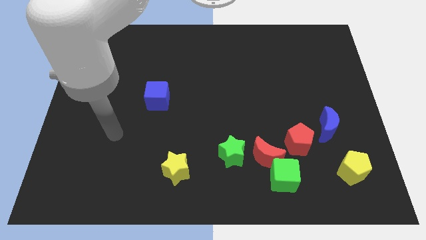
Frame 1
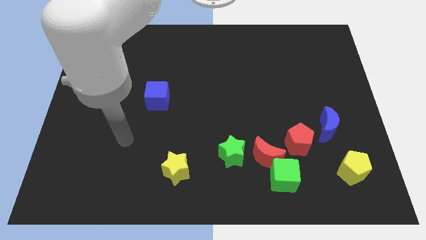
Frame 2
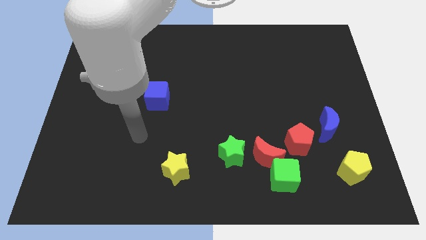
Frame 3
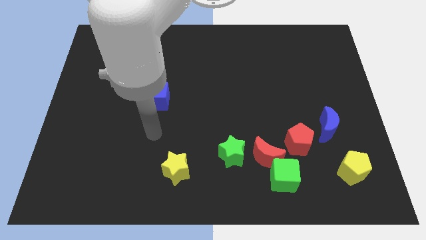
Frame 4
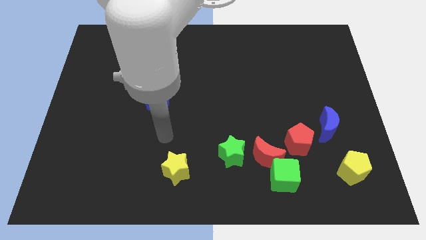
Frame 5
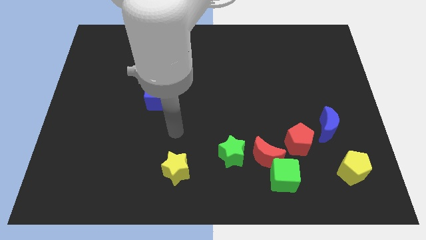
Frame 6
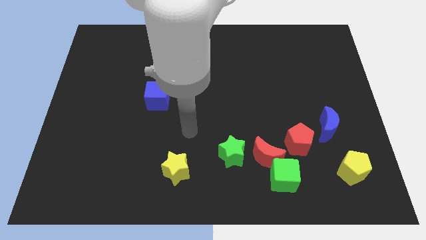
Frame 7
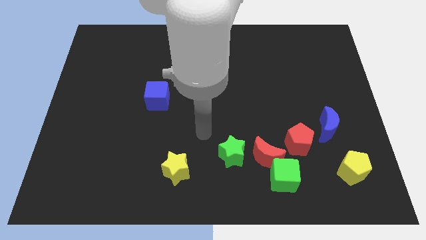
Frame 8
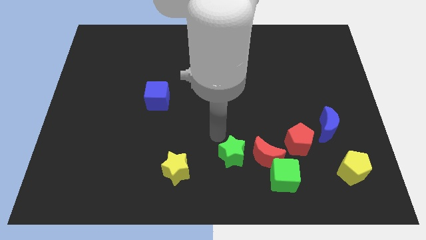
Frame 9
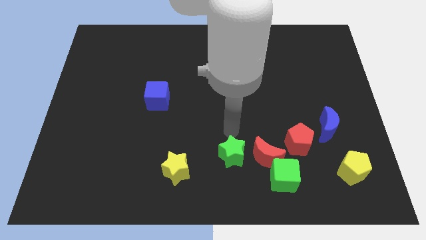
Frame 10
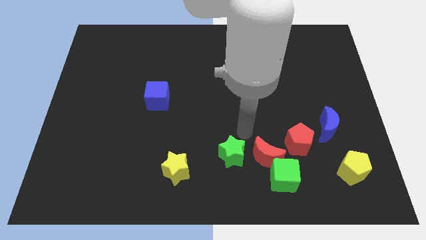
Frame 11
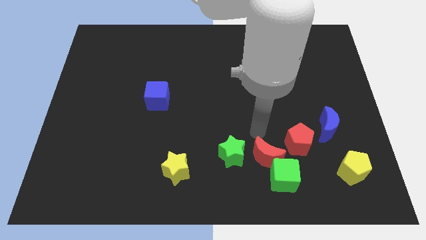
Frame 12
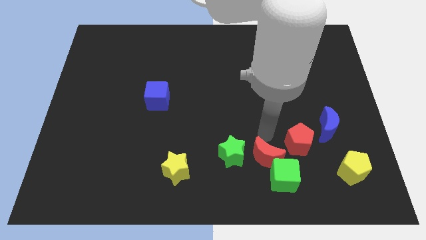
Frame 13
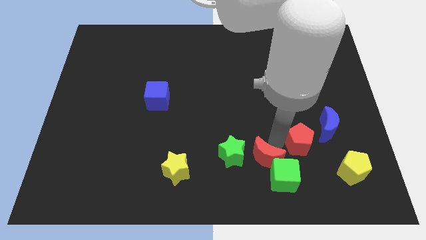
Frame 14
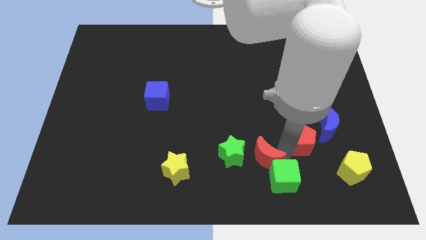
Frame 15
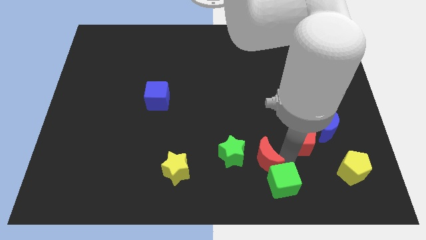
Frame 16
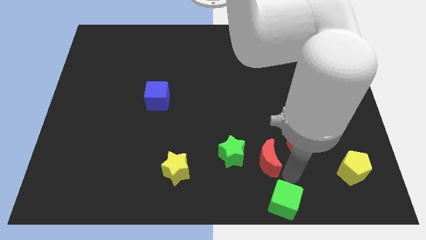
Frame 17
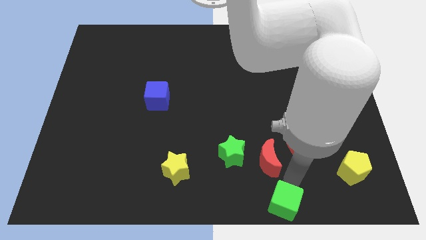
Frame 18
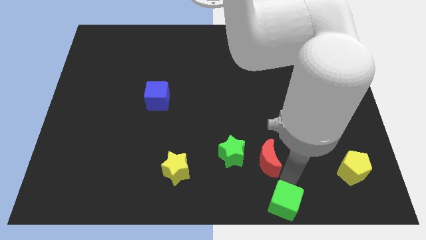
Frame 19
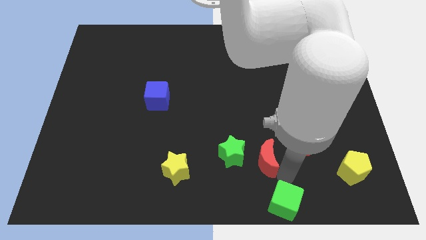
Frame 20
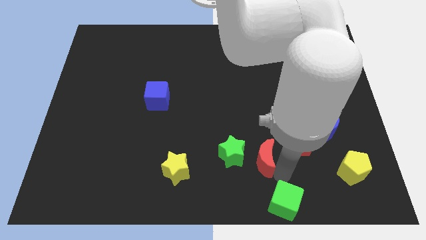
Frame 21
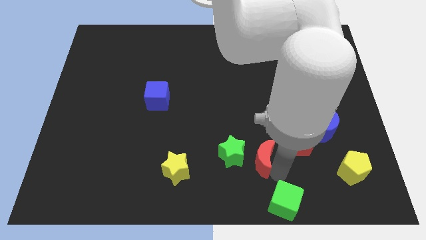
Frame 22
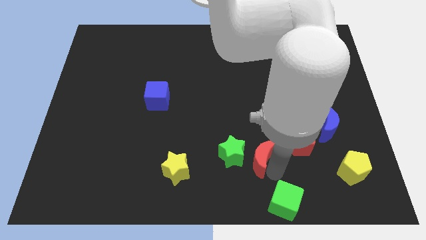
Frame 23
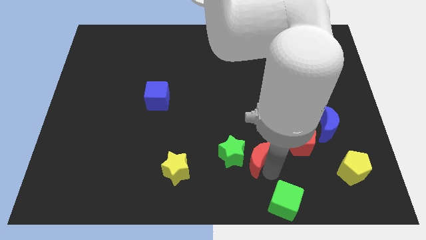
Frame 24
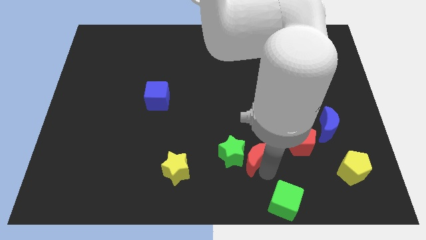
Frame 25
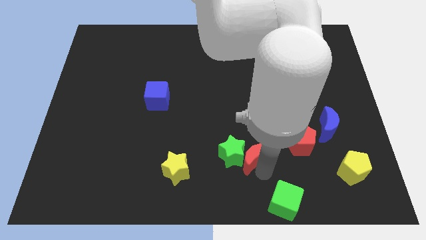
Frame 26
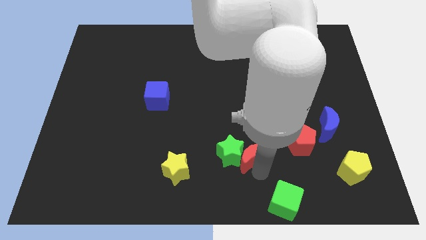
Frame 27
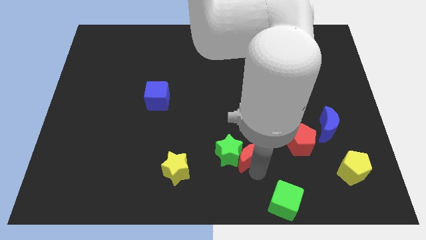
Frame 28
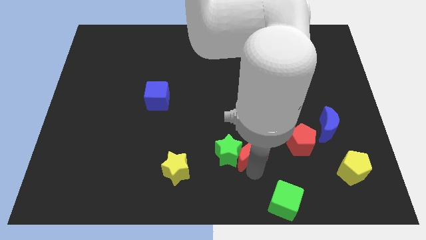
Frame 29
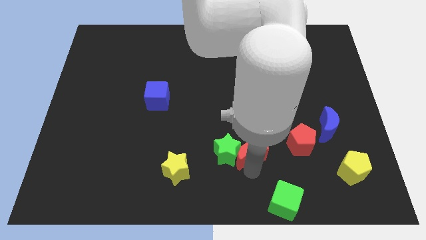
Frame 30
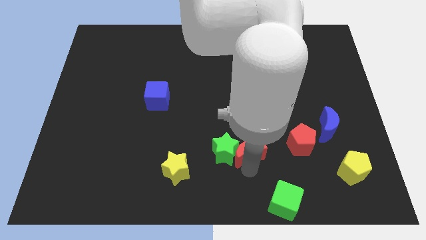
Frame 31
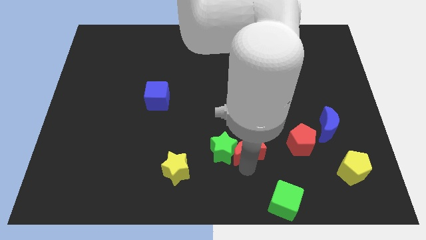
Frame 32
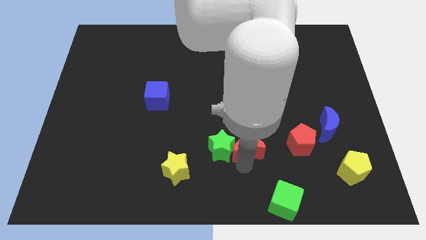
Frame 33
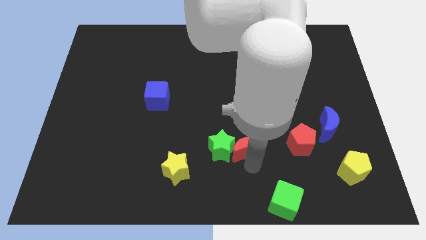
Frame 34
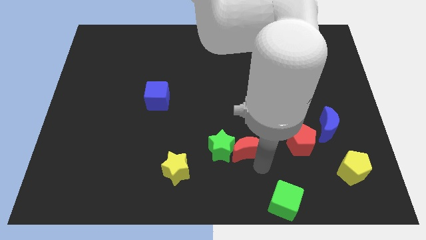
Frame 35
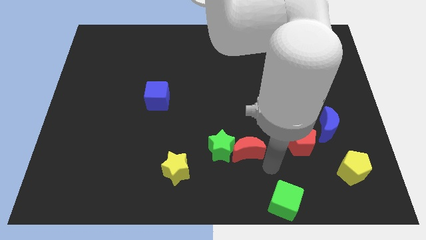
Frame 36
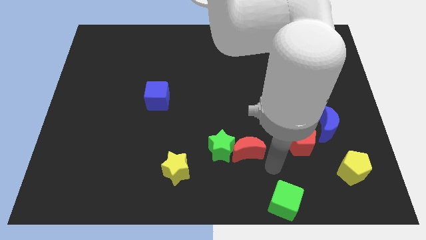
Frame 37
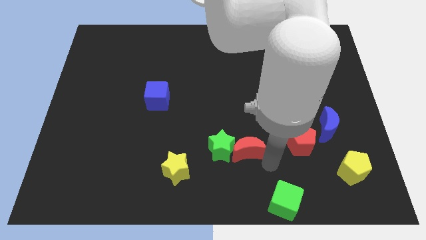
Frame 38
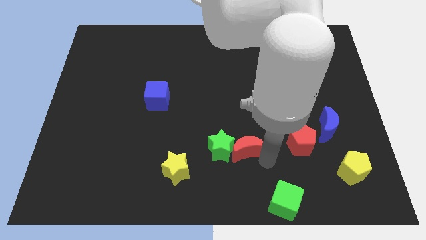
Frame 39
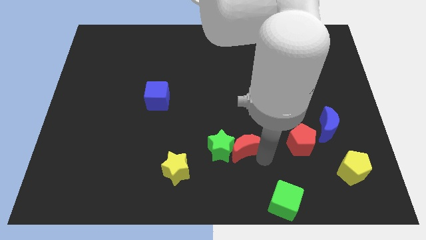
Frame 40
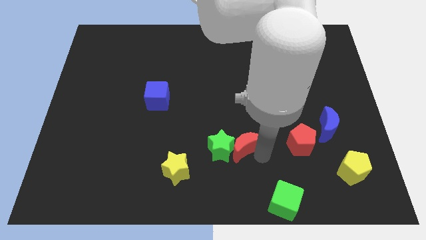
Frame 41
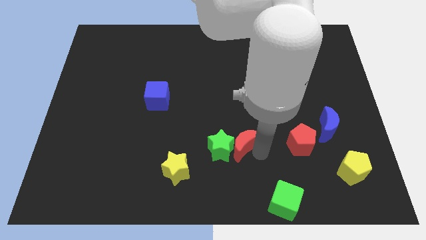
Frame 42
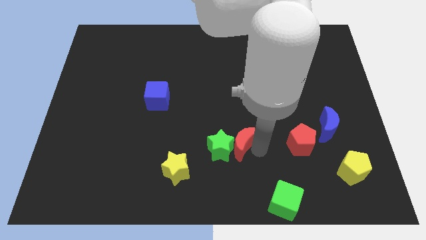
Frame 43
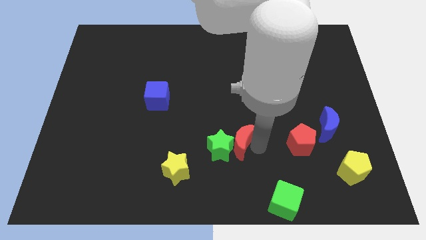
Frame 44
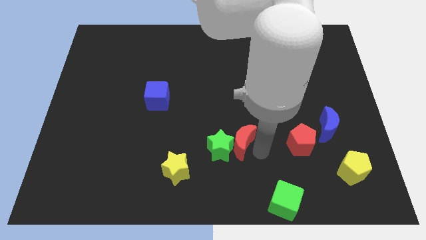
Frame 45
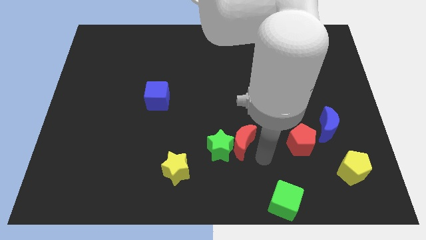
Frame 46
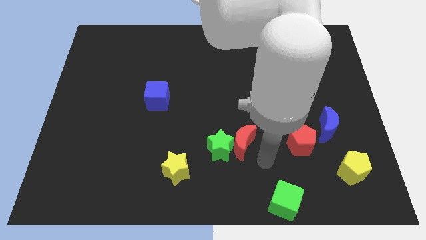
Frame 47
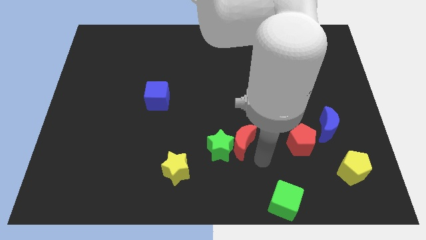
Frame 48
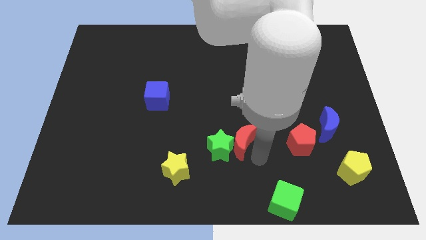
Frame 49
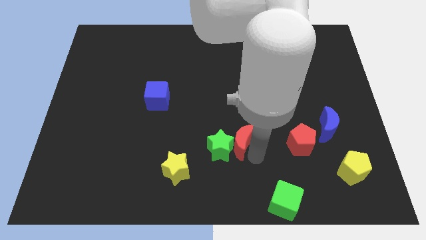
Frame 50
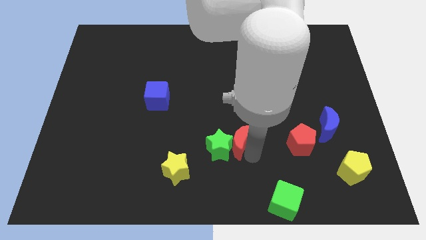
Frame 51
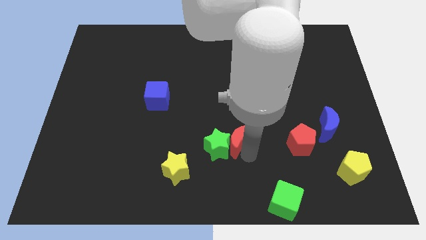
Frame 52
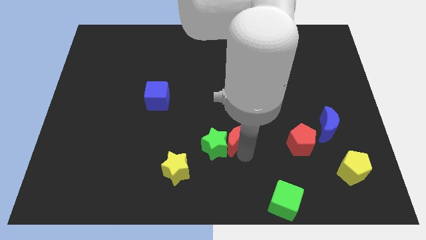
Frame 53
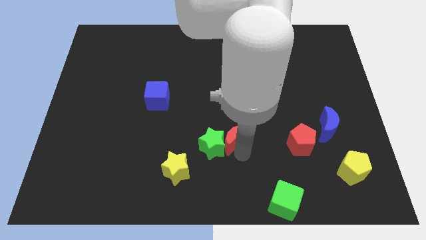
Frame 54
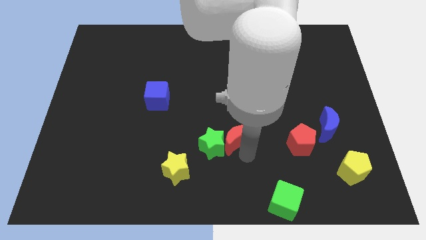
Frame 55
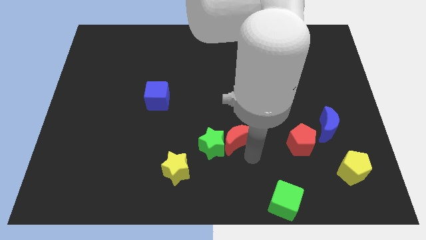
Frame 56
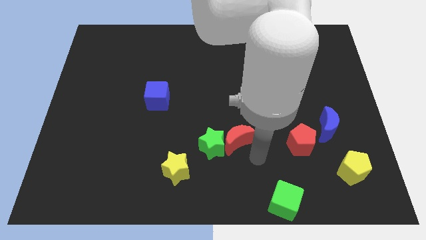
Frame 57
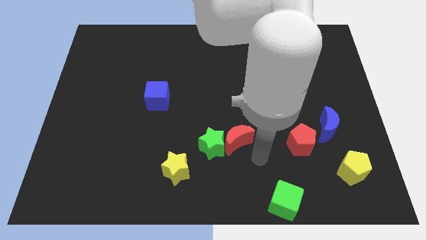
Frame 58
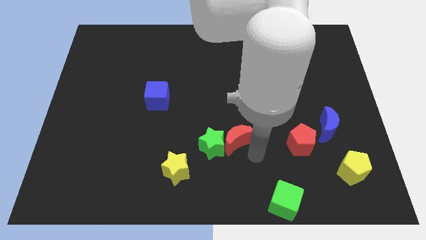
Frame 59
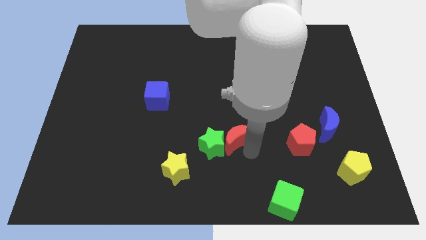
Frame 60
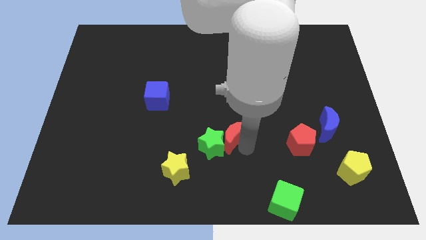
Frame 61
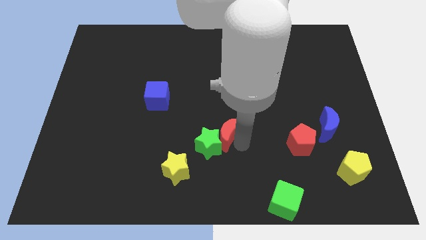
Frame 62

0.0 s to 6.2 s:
move the red moon away from the clump

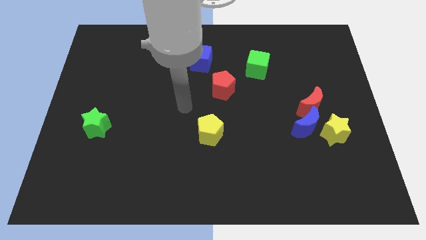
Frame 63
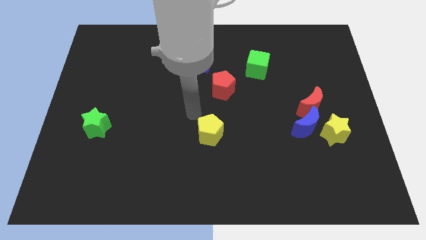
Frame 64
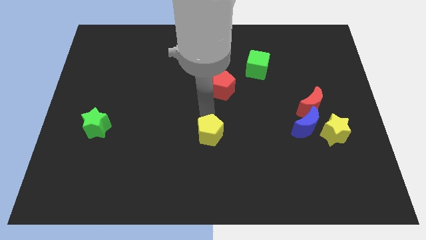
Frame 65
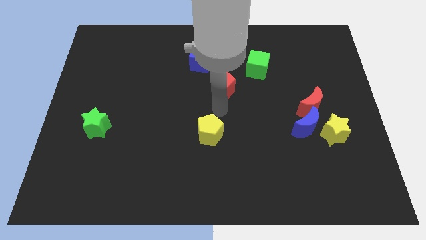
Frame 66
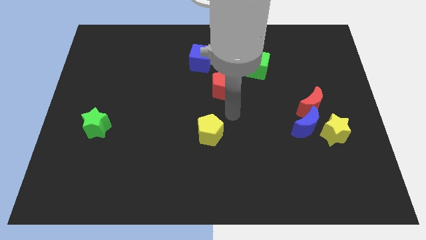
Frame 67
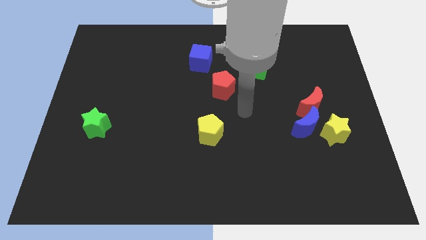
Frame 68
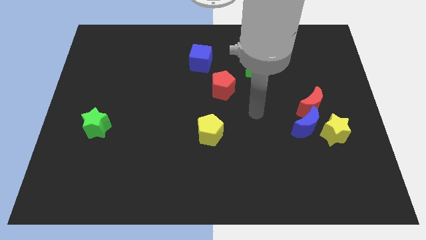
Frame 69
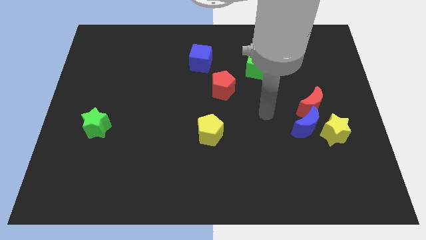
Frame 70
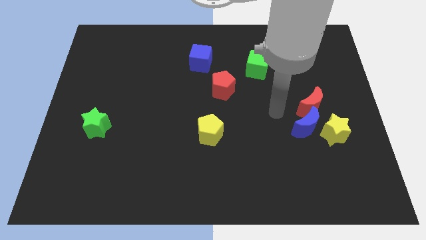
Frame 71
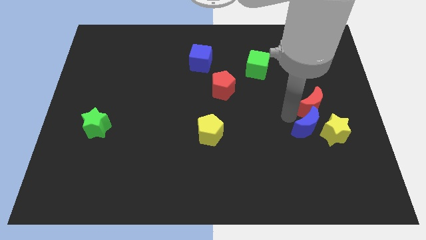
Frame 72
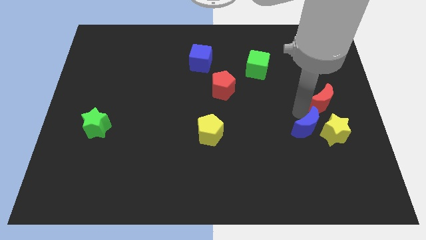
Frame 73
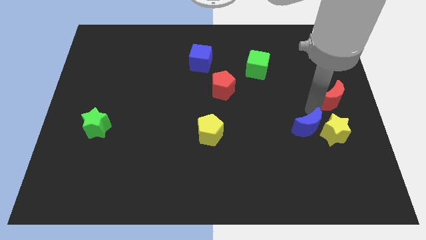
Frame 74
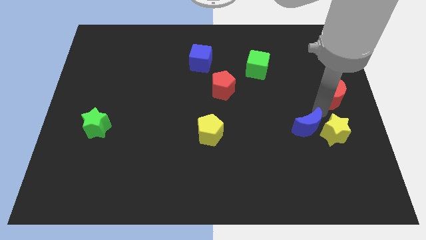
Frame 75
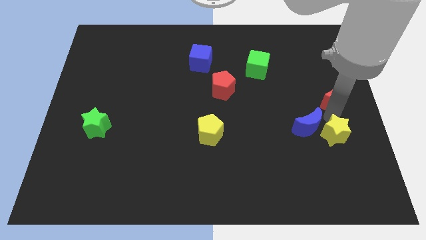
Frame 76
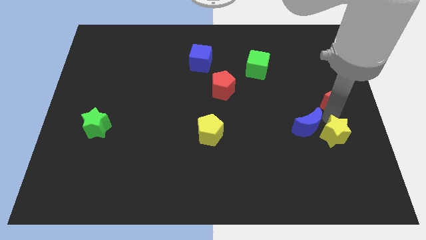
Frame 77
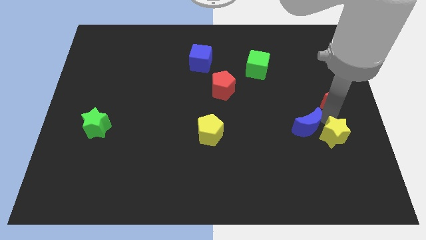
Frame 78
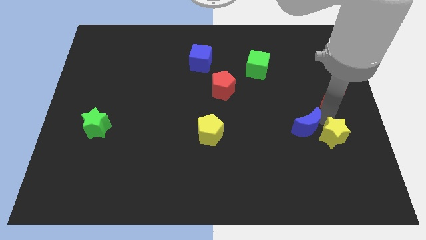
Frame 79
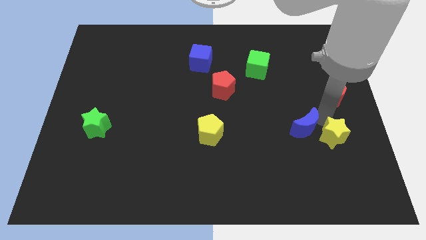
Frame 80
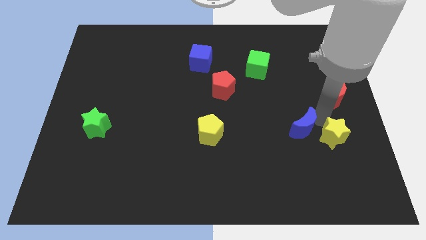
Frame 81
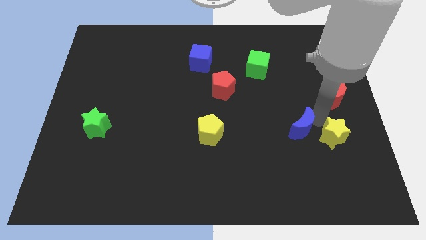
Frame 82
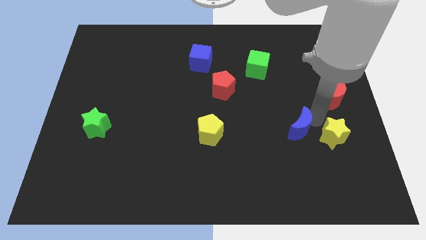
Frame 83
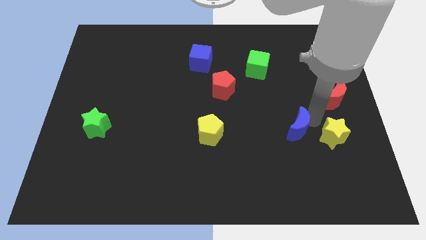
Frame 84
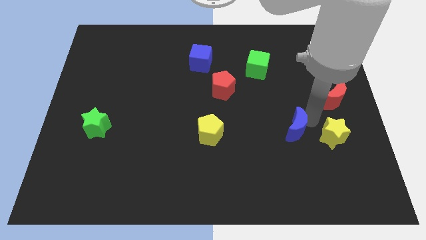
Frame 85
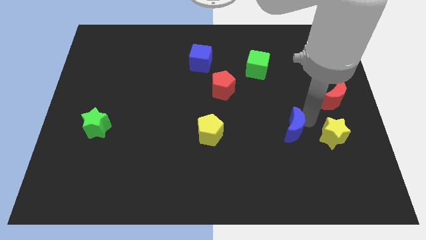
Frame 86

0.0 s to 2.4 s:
pull the blue moon apart from the yellow star and red moon

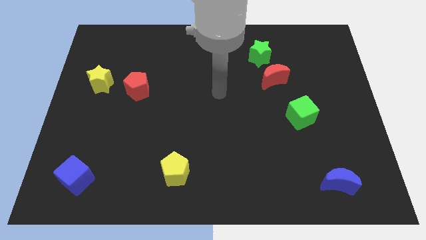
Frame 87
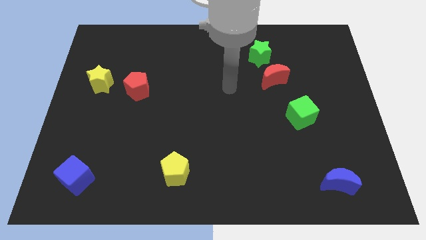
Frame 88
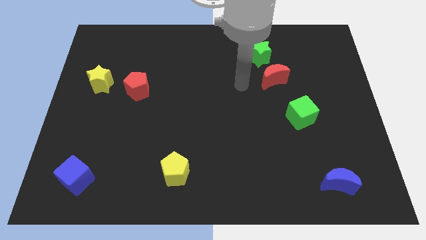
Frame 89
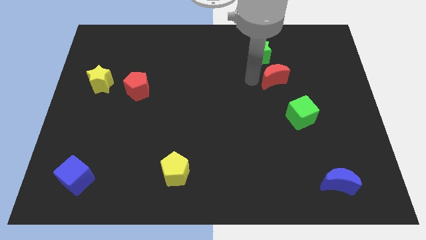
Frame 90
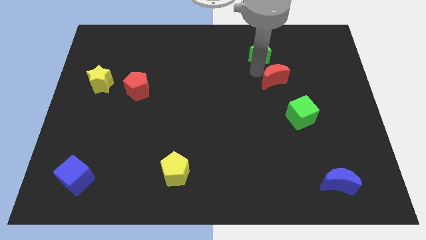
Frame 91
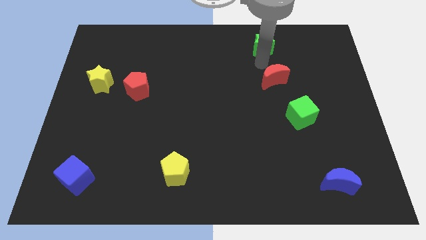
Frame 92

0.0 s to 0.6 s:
pull the red moon apart from the green star

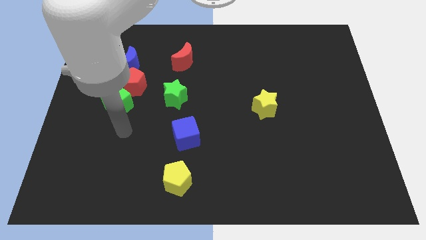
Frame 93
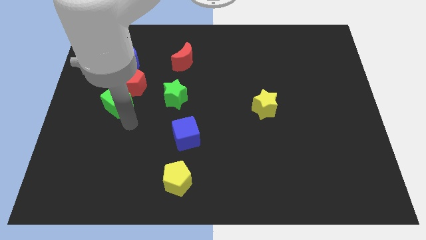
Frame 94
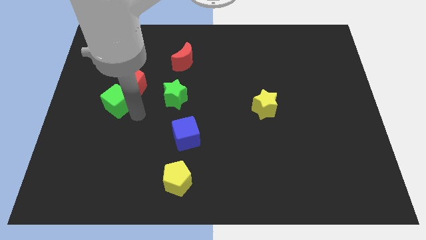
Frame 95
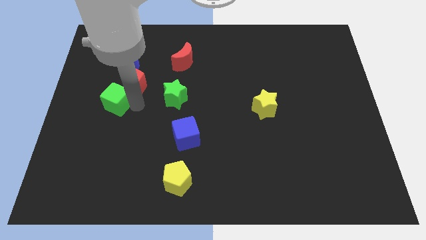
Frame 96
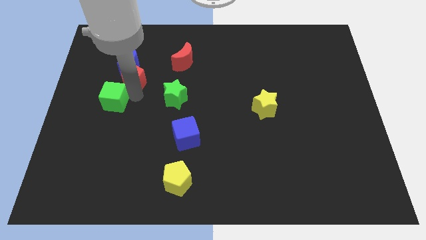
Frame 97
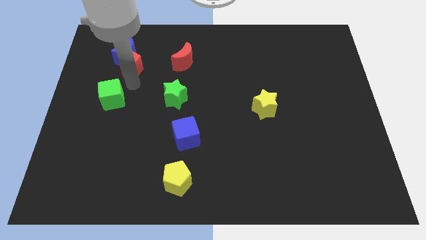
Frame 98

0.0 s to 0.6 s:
move the green cube away from the red pentagon
